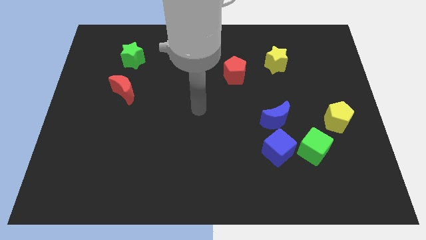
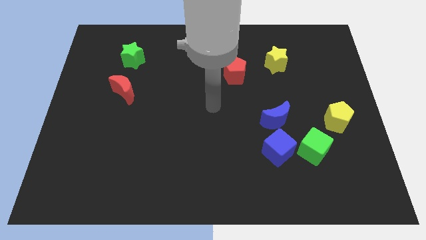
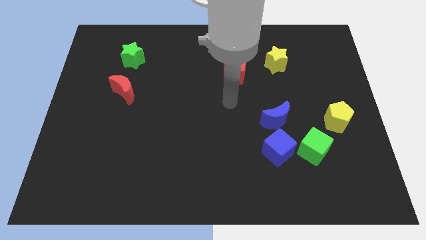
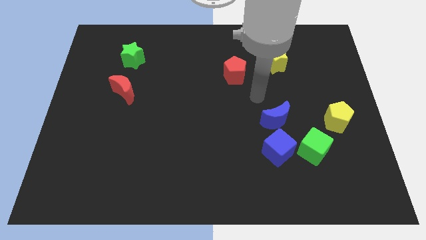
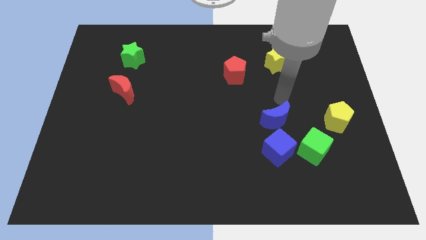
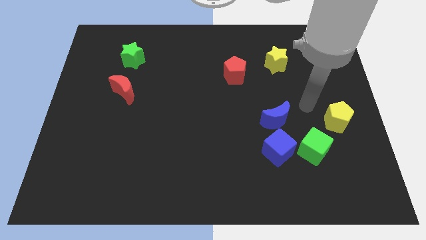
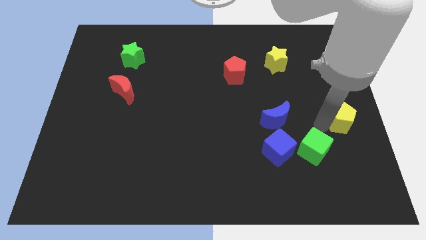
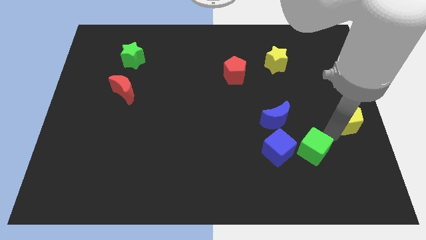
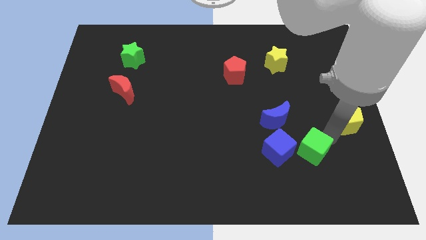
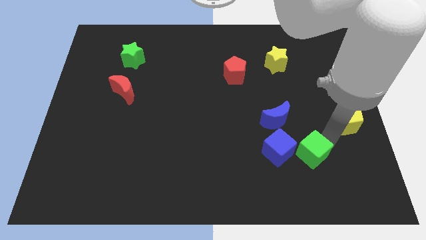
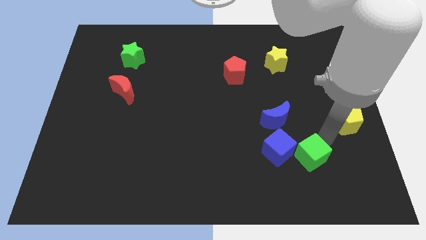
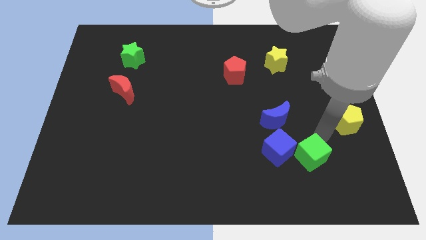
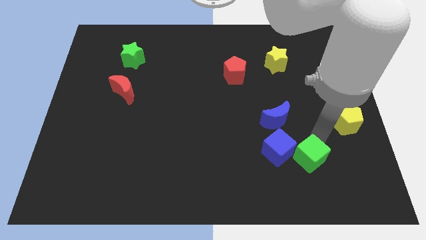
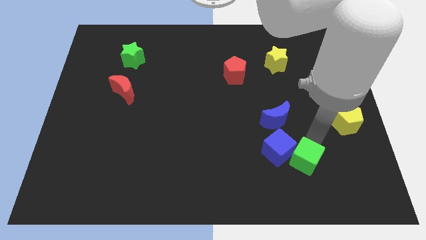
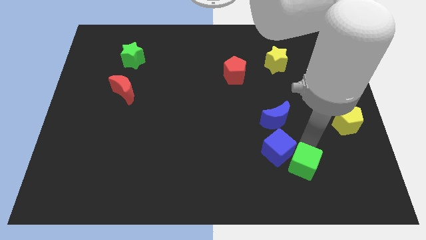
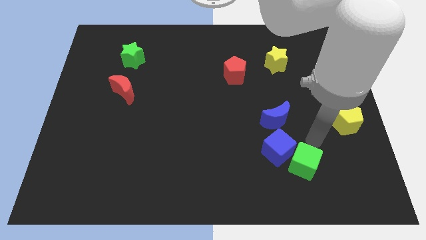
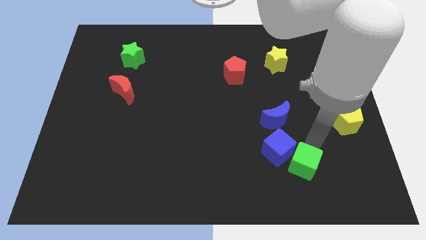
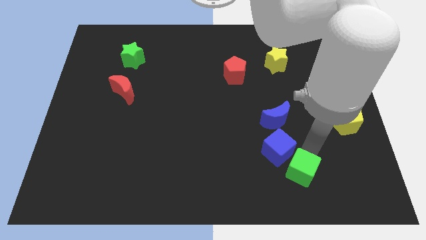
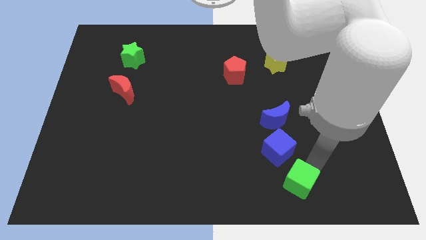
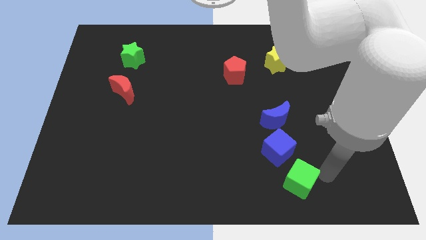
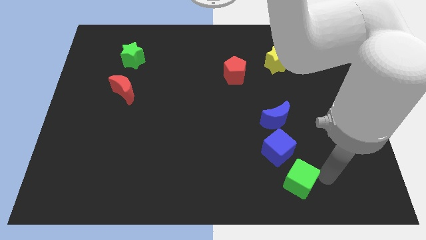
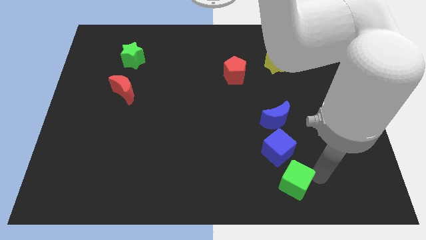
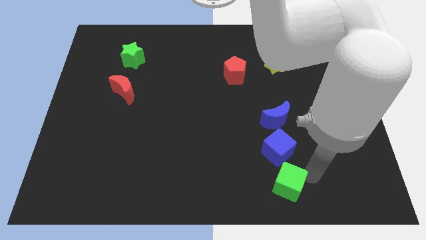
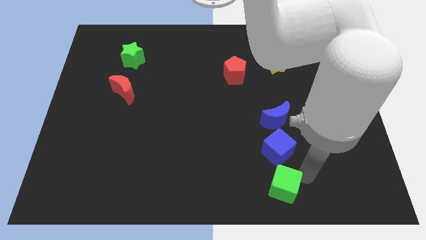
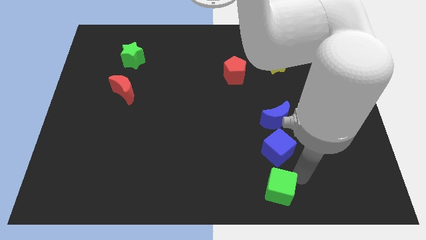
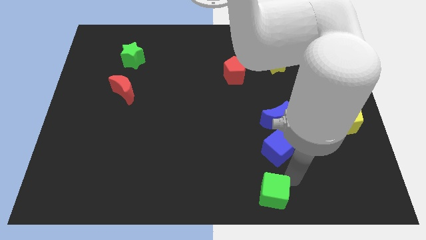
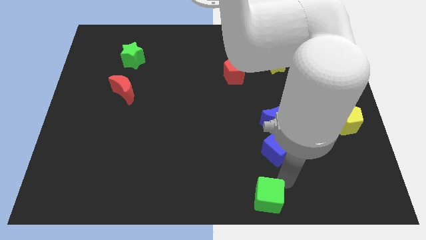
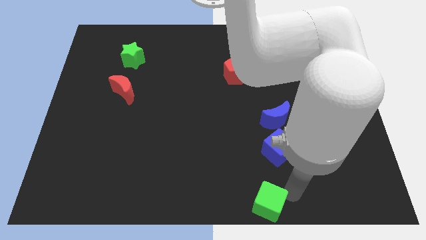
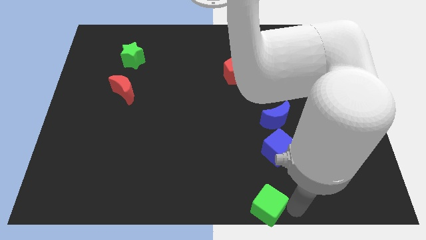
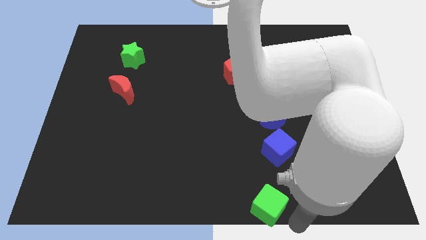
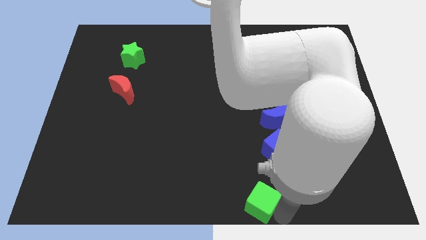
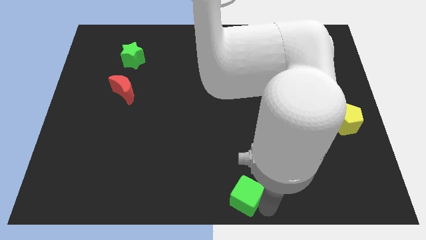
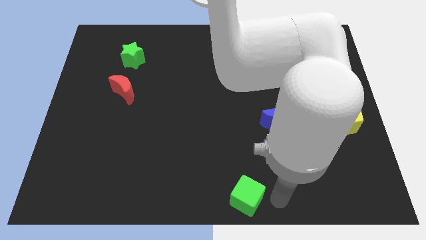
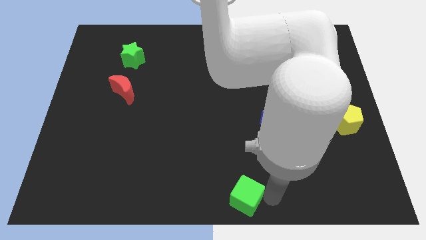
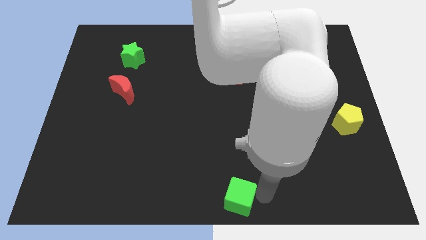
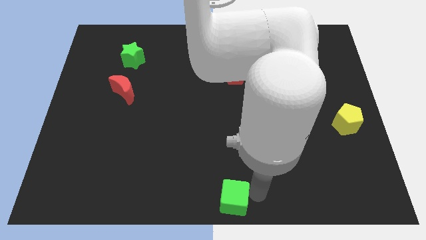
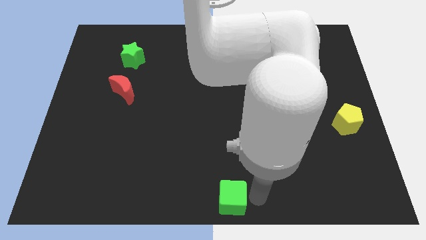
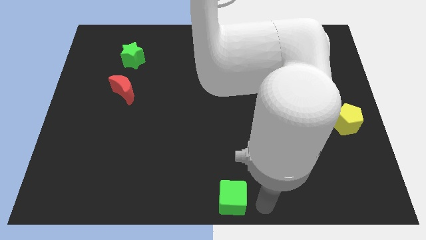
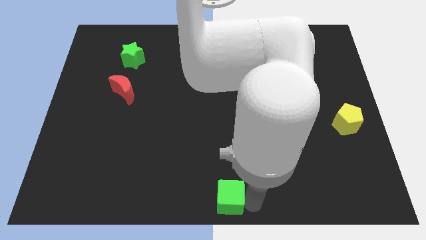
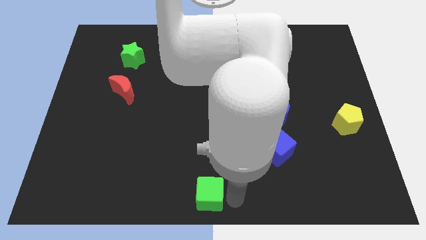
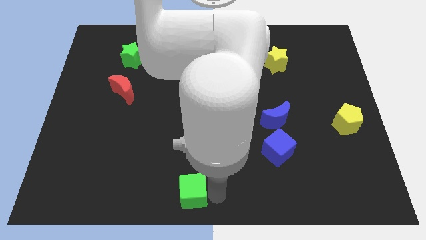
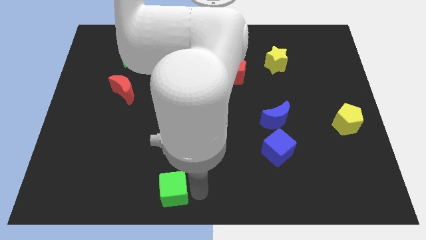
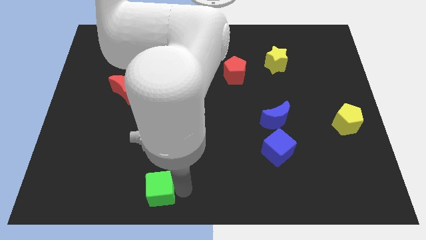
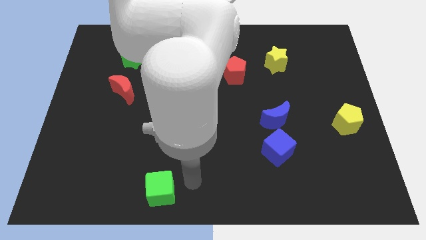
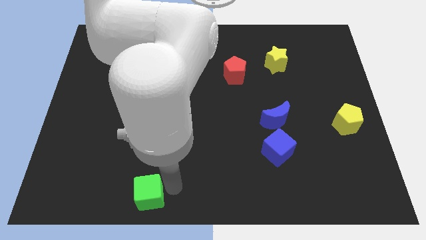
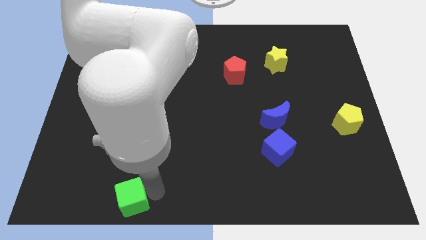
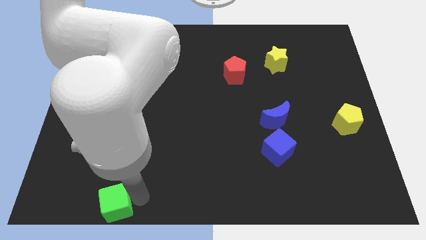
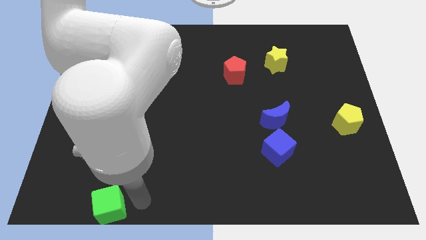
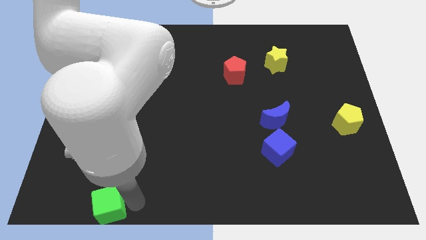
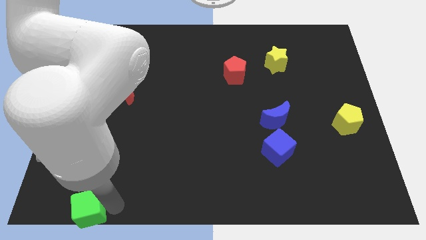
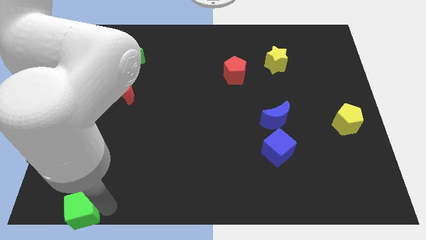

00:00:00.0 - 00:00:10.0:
move the green cube to the bottom left corner

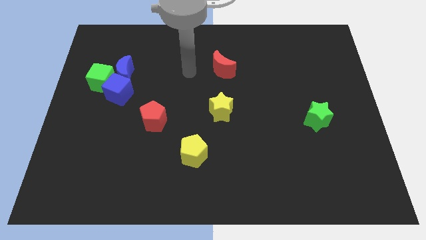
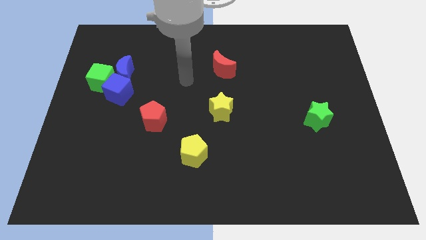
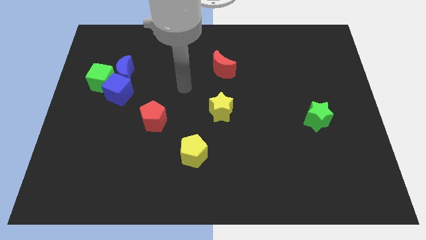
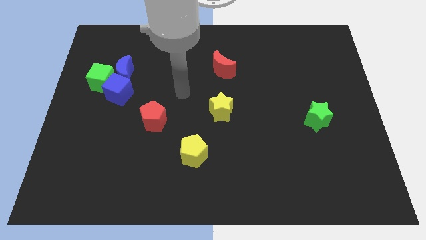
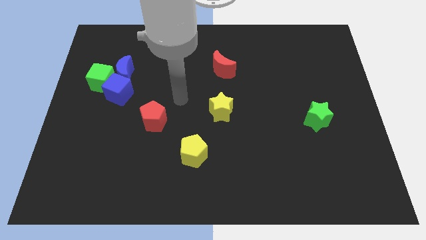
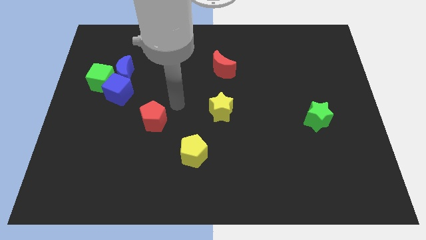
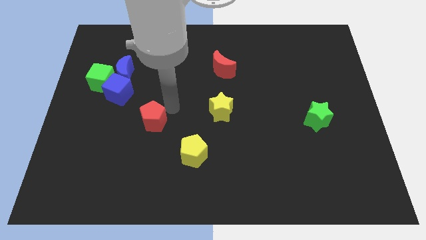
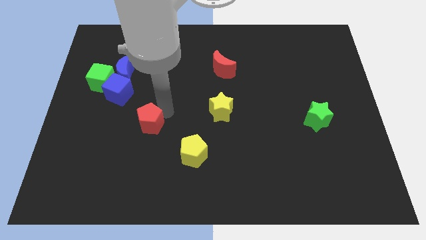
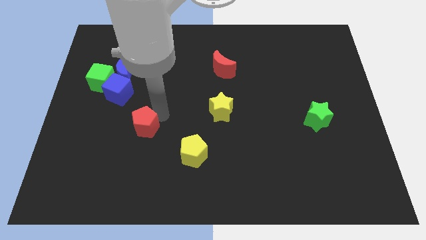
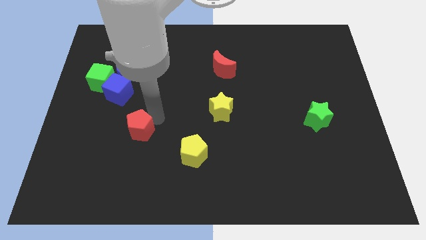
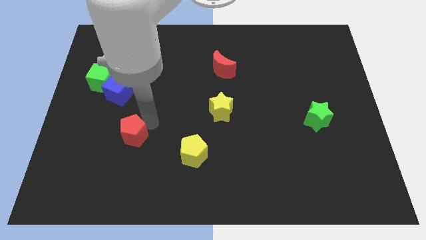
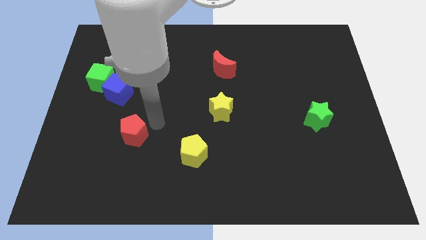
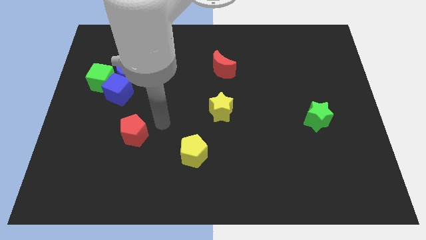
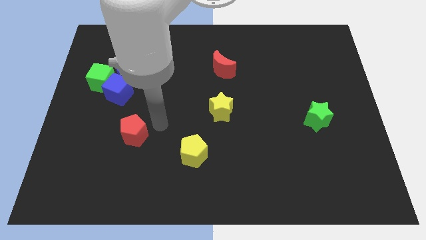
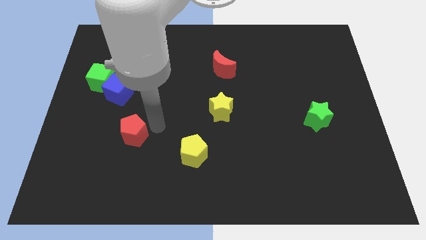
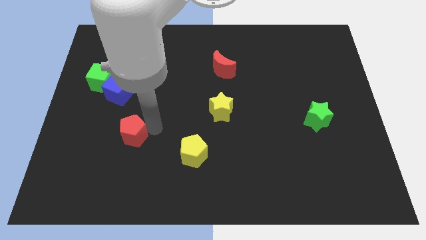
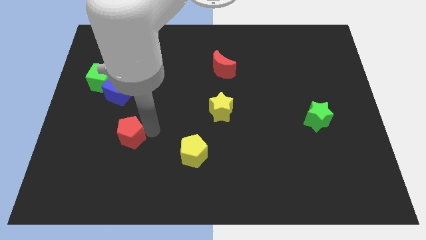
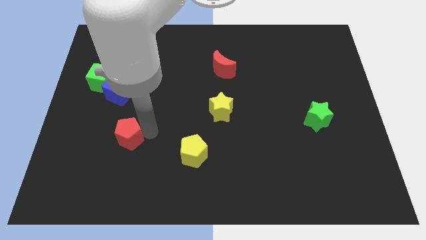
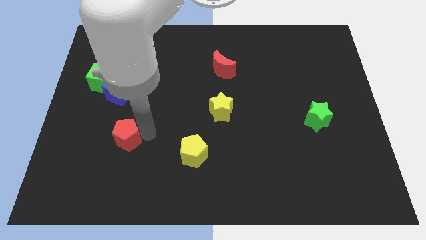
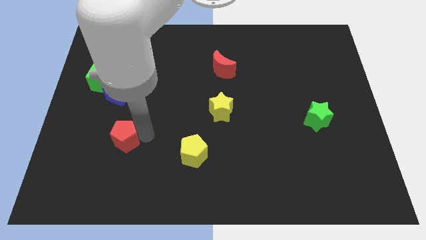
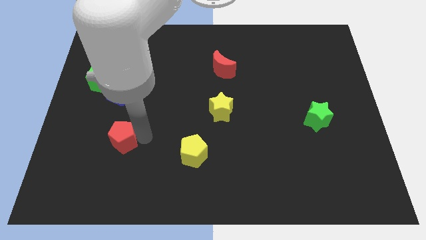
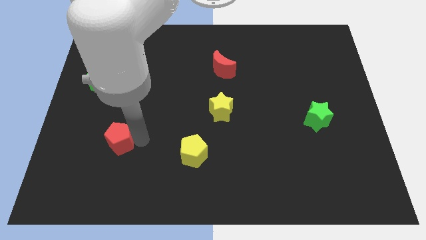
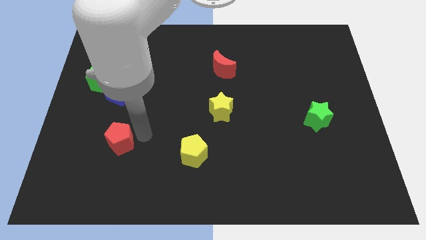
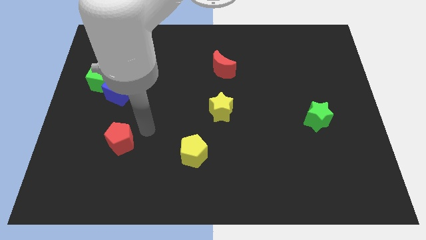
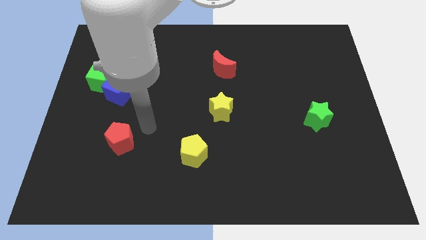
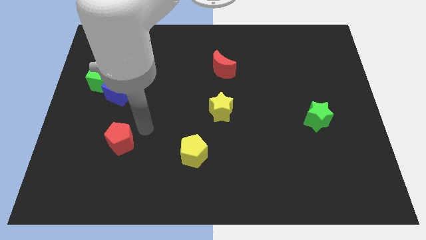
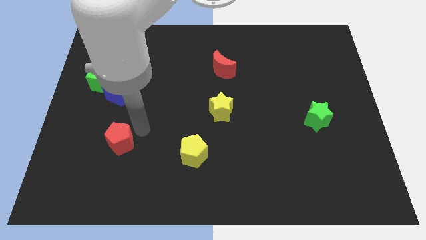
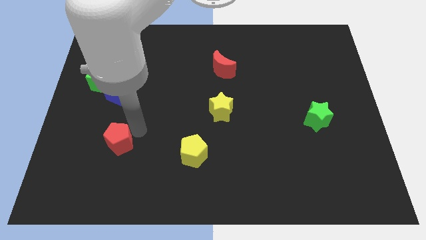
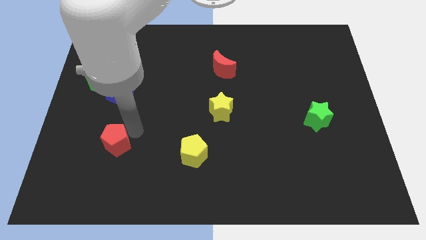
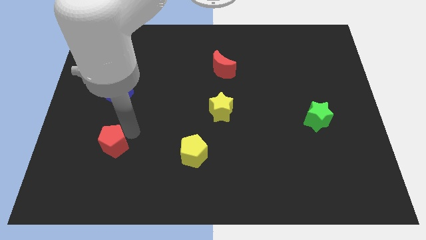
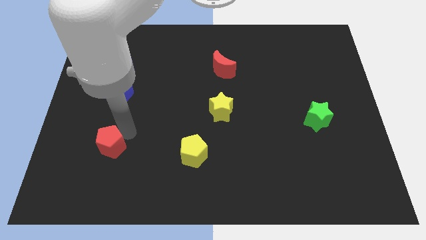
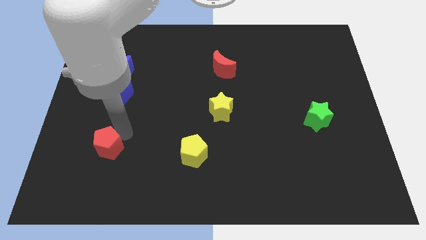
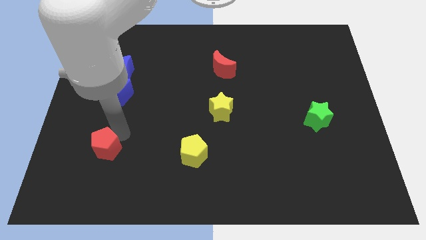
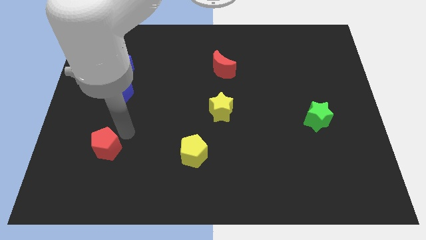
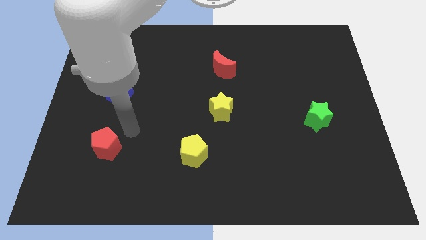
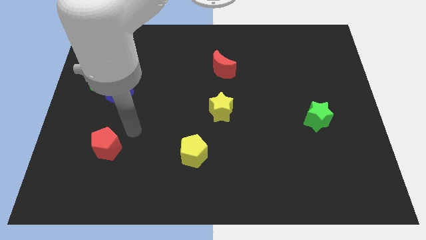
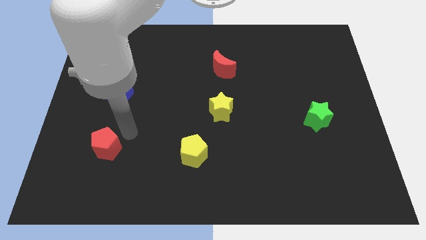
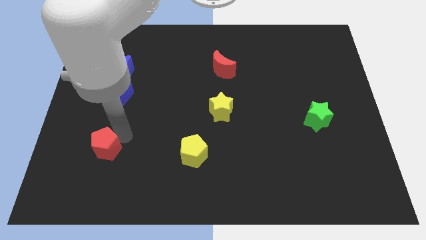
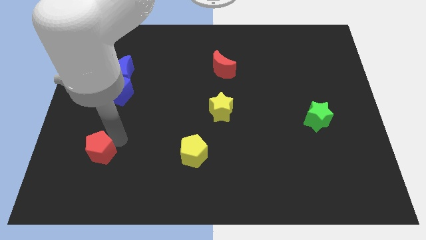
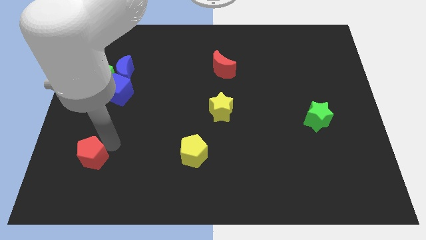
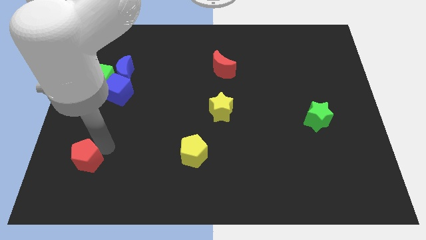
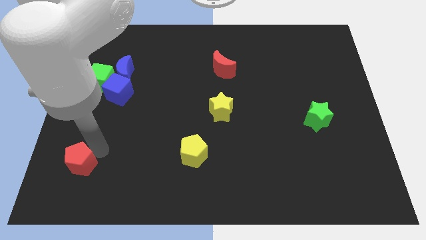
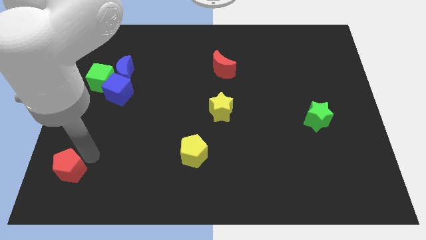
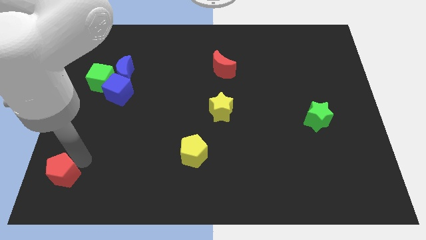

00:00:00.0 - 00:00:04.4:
move the red pentagon to the bottom left
